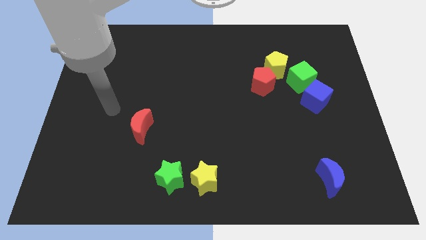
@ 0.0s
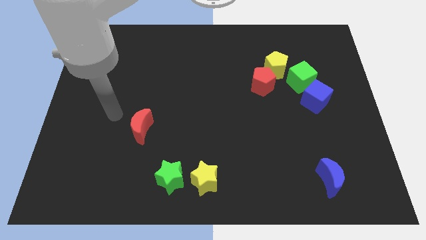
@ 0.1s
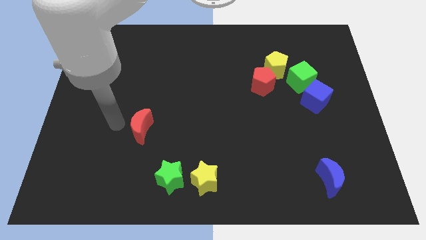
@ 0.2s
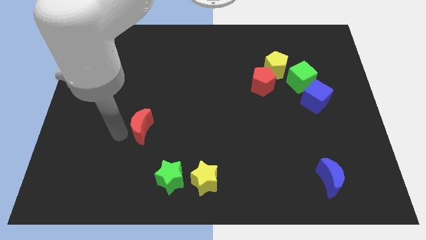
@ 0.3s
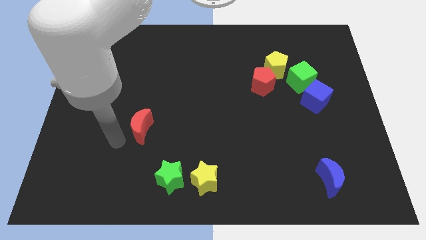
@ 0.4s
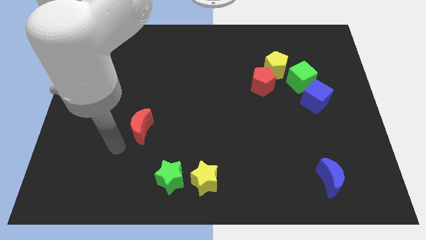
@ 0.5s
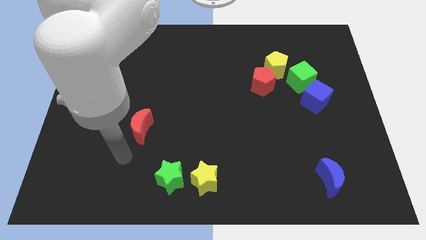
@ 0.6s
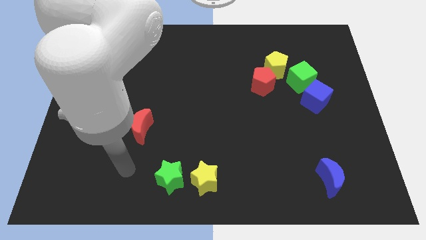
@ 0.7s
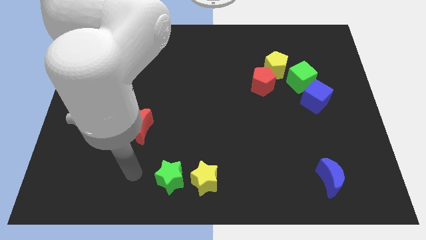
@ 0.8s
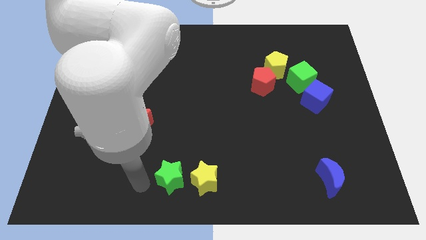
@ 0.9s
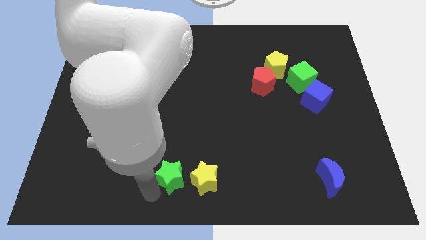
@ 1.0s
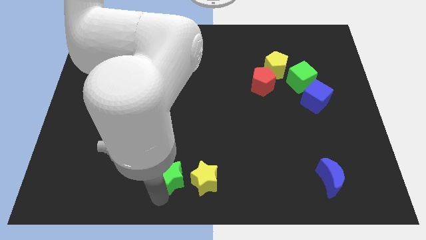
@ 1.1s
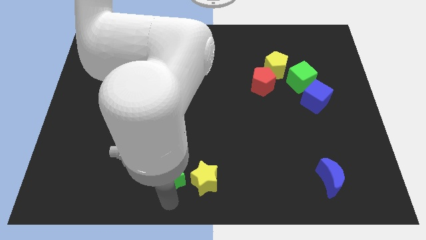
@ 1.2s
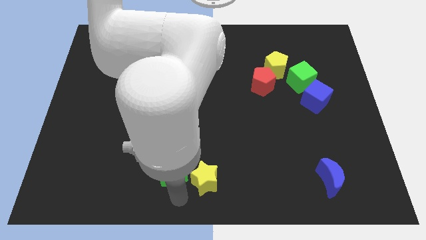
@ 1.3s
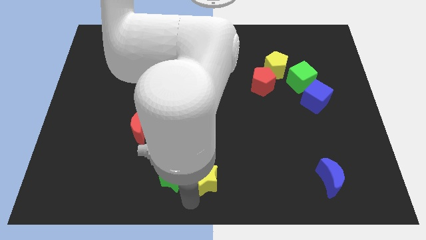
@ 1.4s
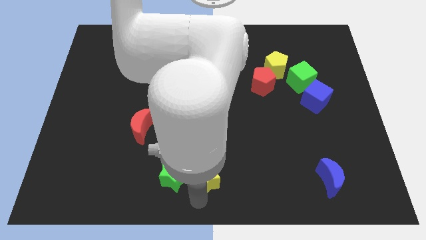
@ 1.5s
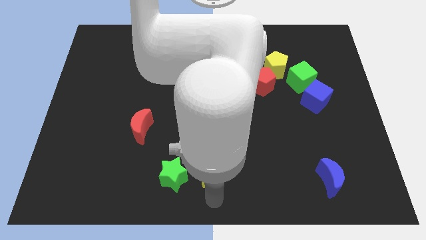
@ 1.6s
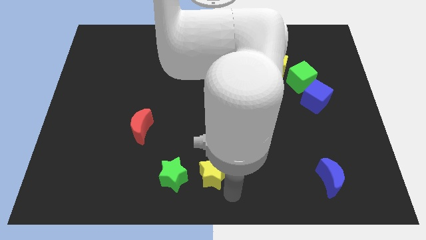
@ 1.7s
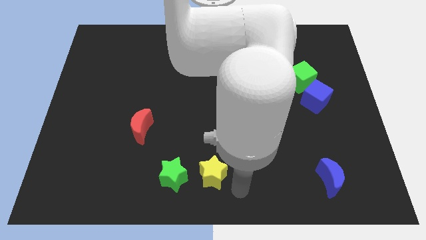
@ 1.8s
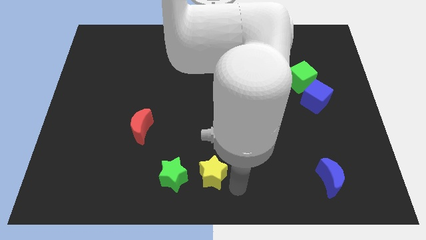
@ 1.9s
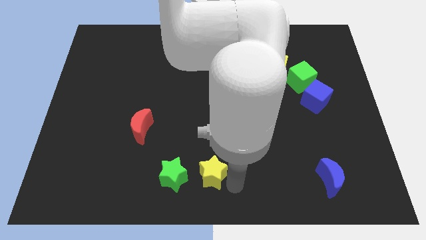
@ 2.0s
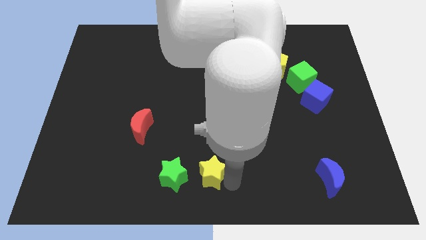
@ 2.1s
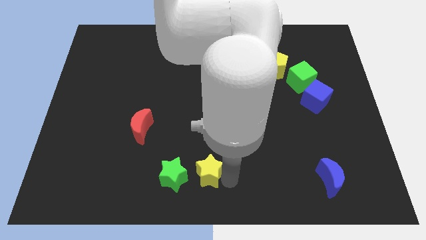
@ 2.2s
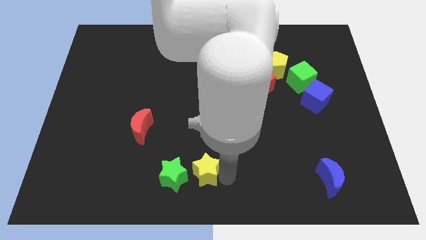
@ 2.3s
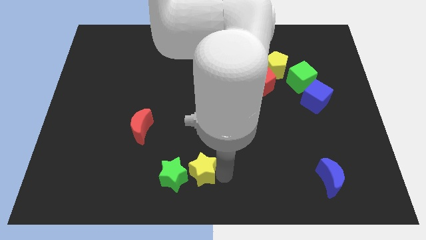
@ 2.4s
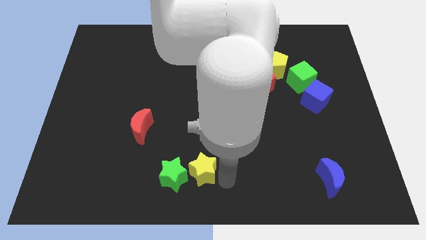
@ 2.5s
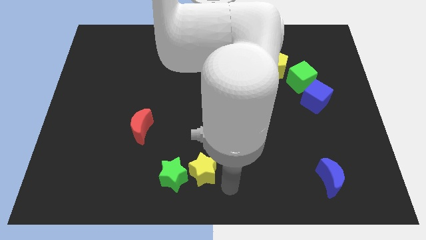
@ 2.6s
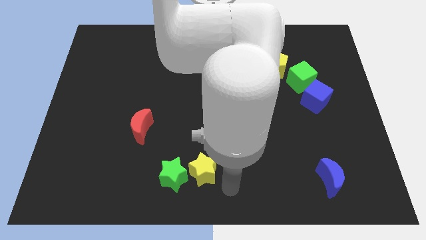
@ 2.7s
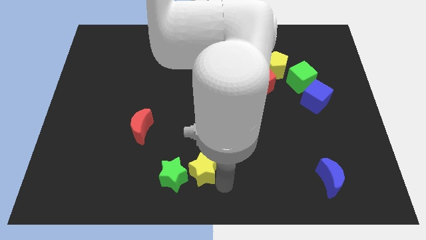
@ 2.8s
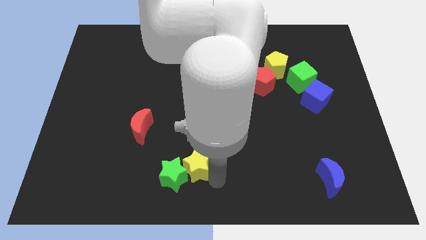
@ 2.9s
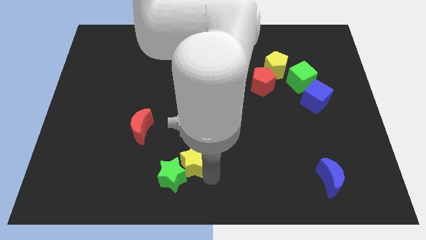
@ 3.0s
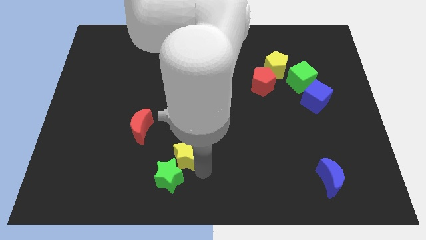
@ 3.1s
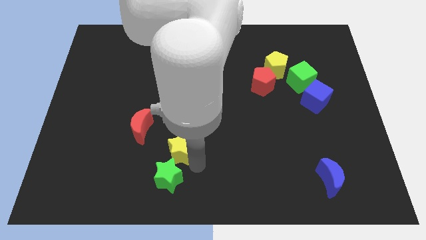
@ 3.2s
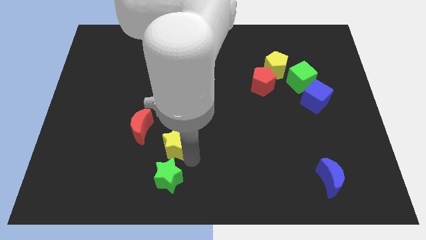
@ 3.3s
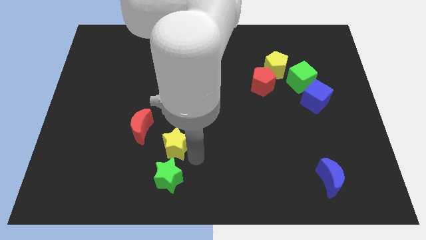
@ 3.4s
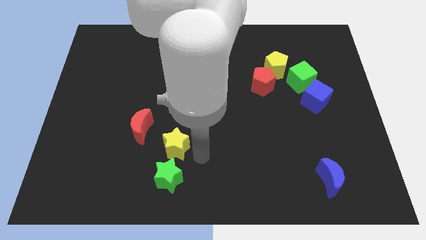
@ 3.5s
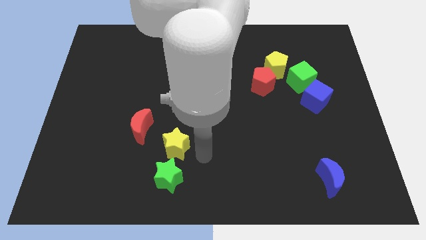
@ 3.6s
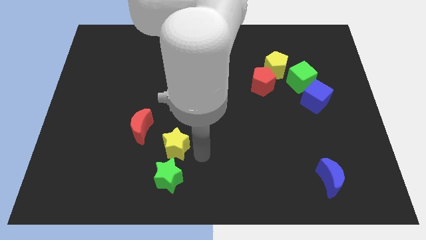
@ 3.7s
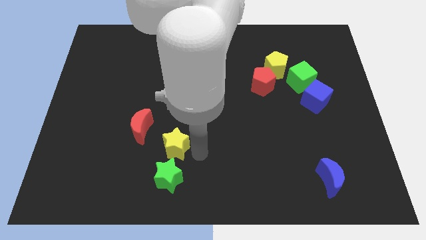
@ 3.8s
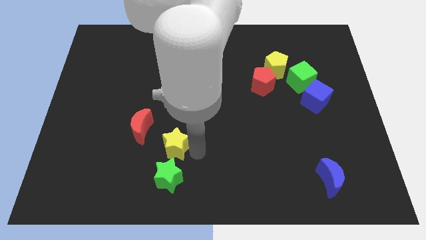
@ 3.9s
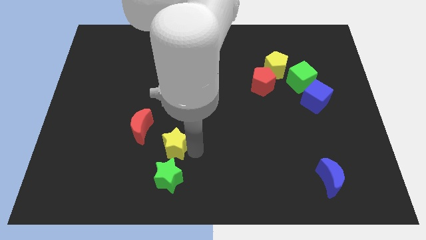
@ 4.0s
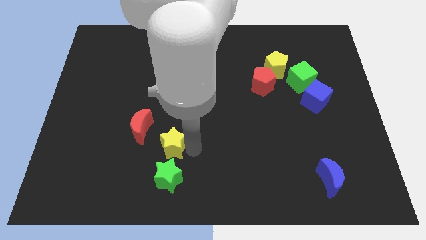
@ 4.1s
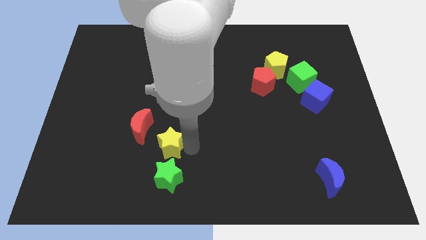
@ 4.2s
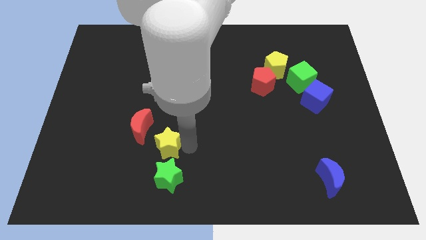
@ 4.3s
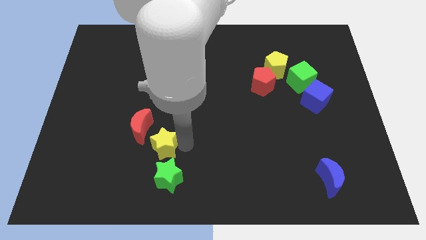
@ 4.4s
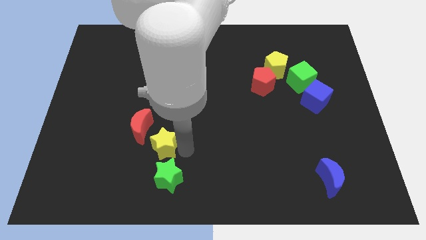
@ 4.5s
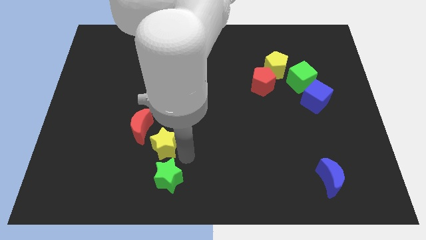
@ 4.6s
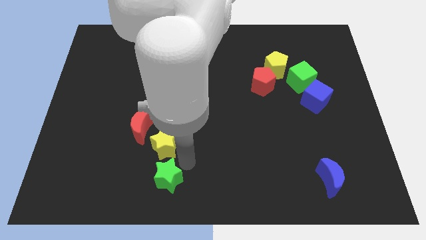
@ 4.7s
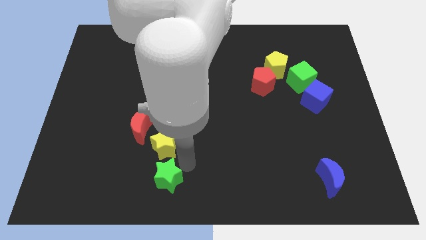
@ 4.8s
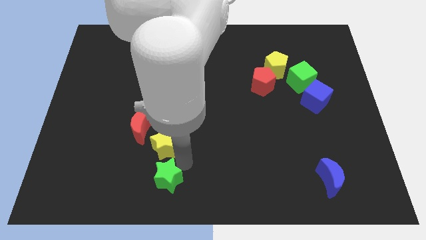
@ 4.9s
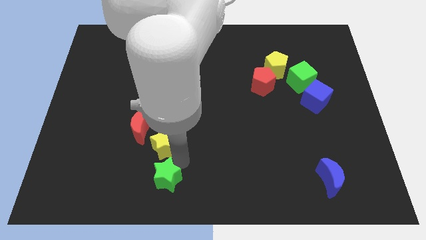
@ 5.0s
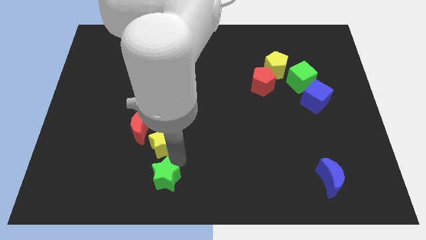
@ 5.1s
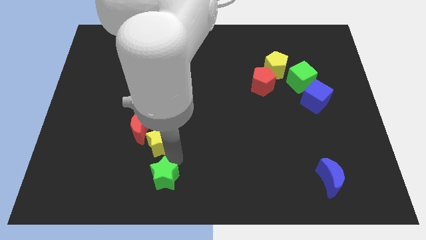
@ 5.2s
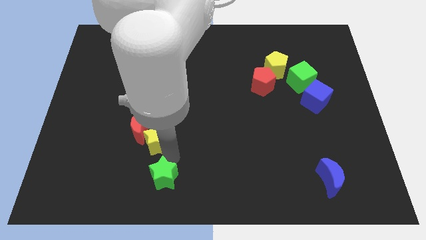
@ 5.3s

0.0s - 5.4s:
push the yellow star to the red moon

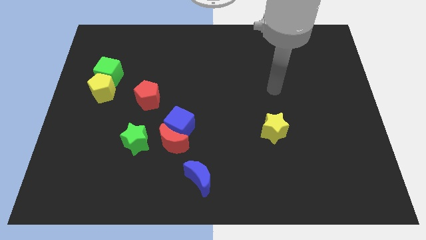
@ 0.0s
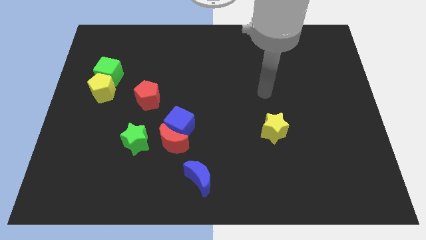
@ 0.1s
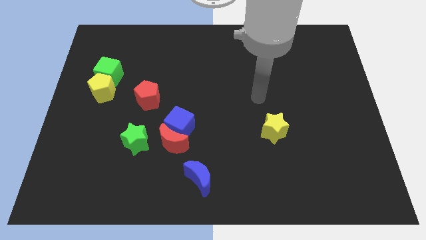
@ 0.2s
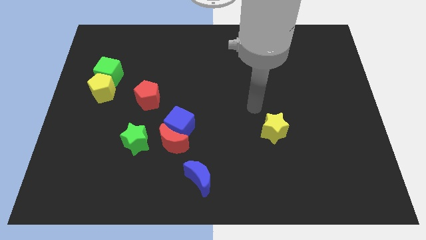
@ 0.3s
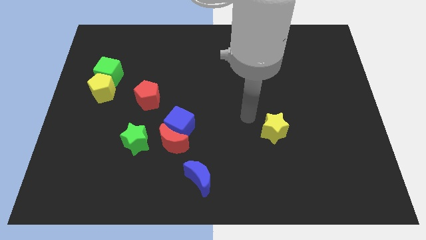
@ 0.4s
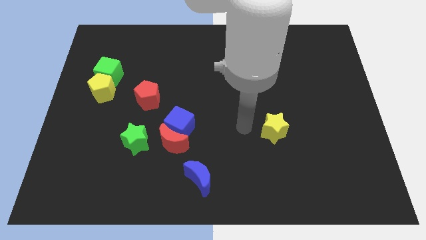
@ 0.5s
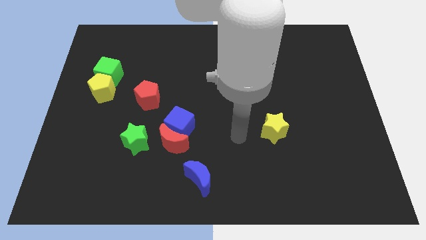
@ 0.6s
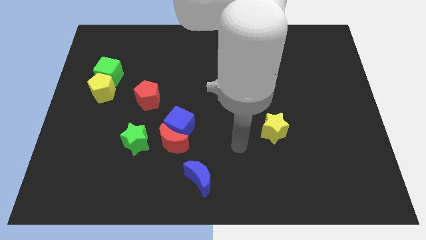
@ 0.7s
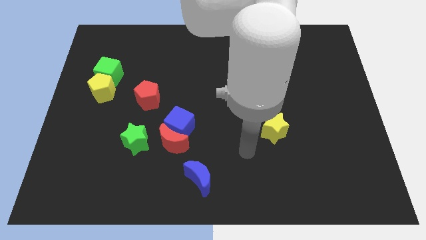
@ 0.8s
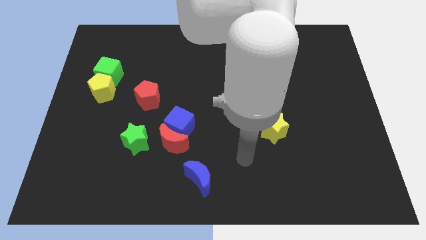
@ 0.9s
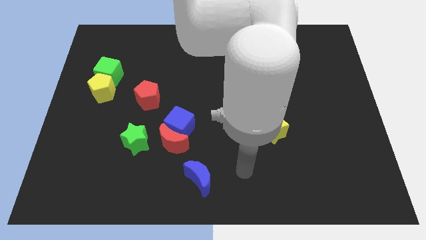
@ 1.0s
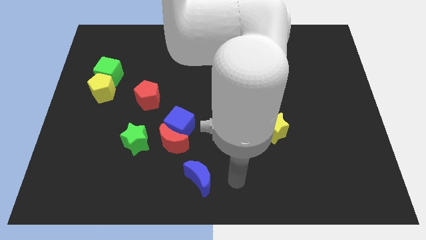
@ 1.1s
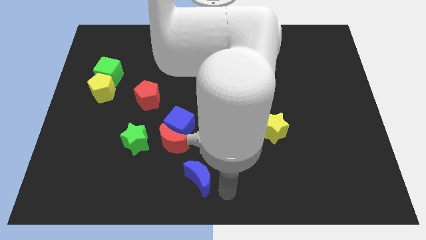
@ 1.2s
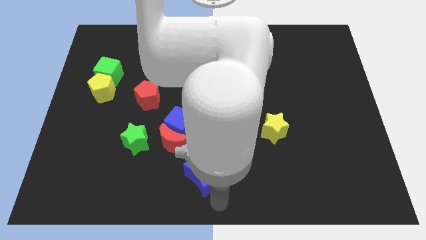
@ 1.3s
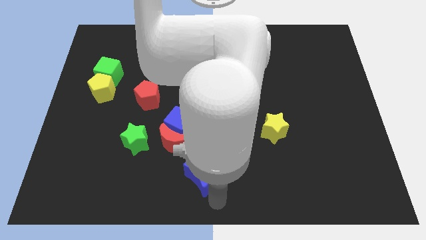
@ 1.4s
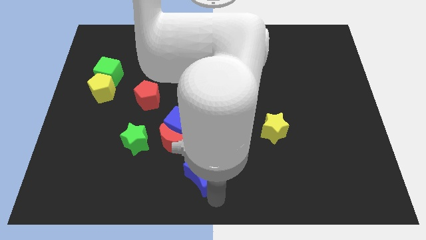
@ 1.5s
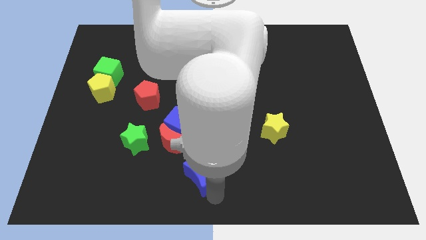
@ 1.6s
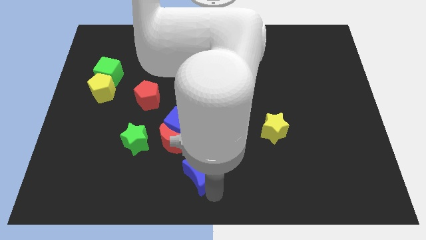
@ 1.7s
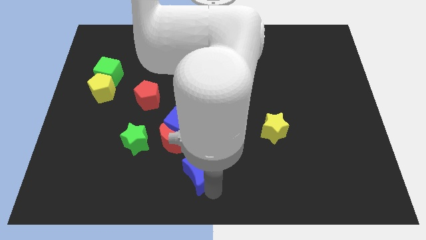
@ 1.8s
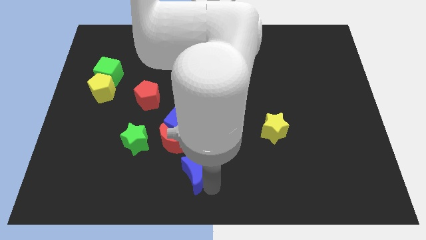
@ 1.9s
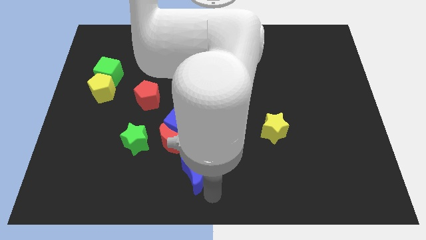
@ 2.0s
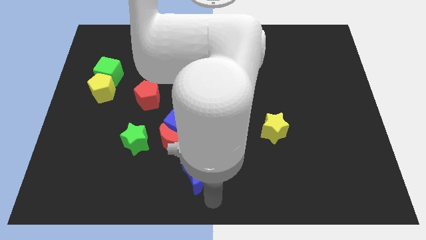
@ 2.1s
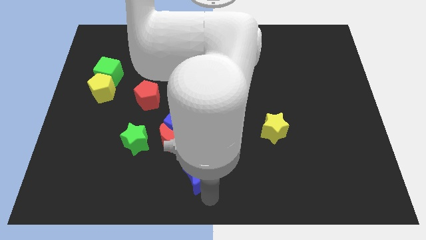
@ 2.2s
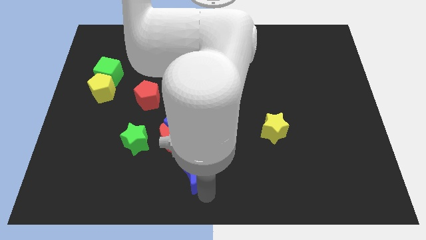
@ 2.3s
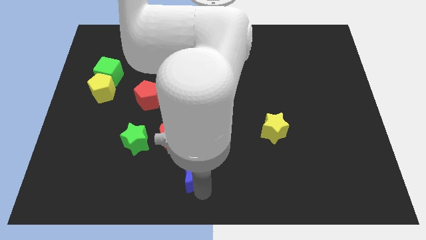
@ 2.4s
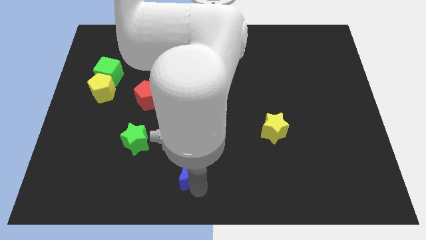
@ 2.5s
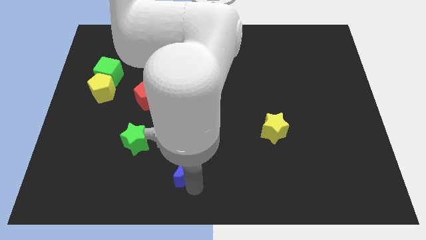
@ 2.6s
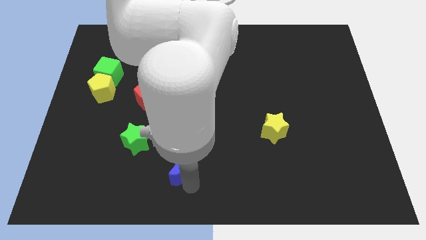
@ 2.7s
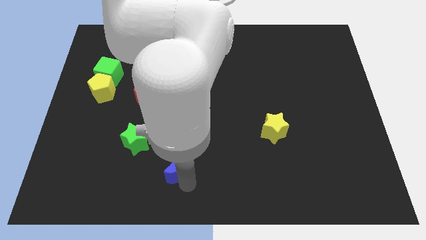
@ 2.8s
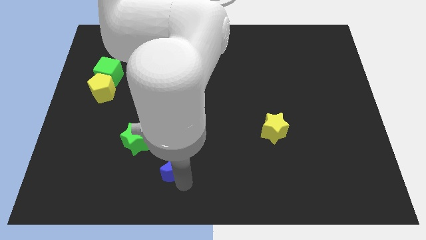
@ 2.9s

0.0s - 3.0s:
push the blue moon close to the red moon
